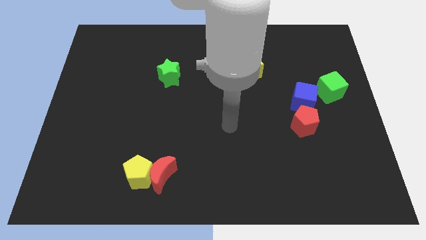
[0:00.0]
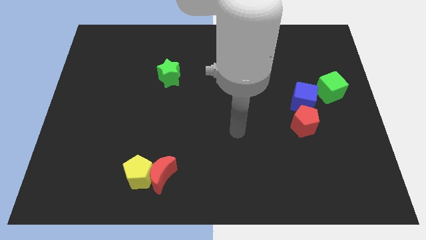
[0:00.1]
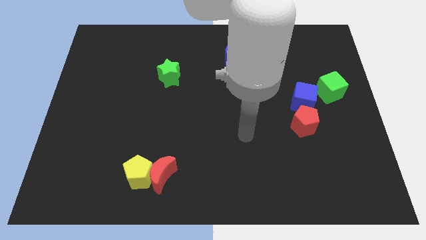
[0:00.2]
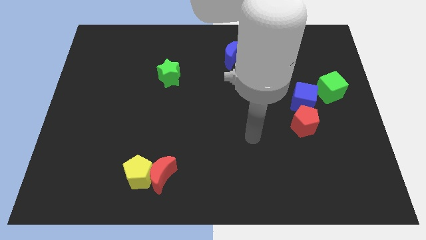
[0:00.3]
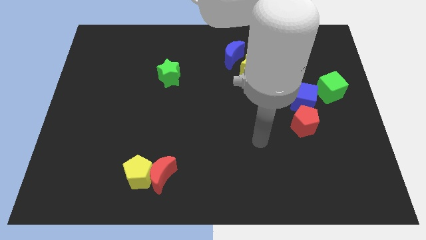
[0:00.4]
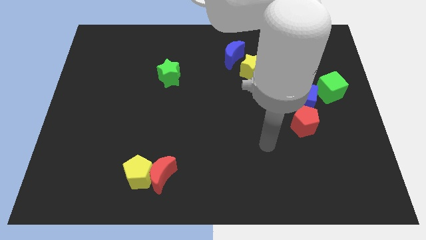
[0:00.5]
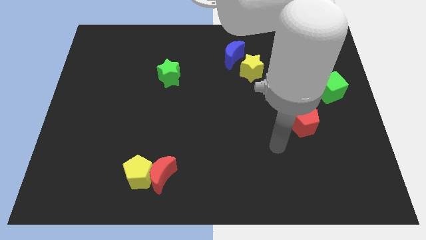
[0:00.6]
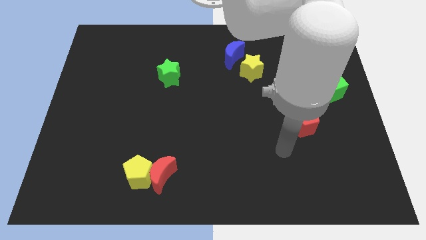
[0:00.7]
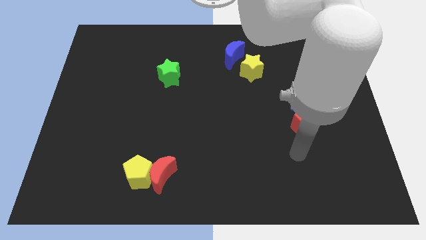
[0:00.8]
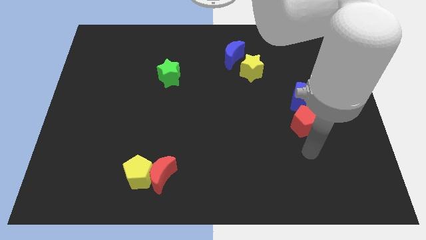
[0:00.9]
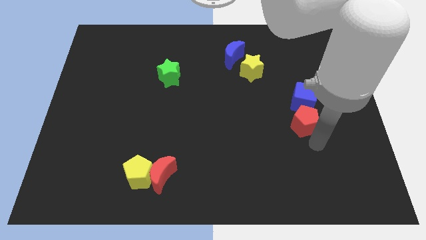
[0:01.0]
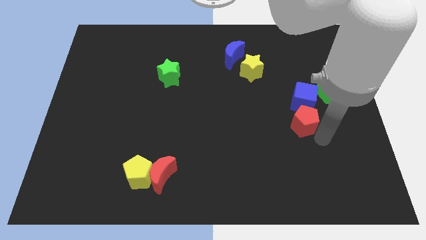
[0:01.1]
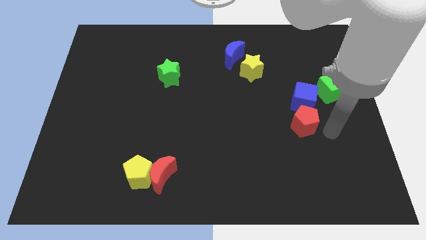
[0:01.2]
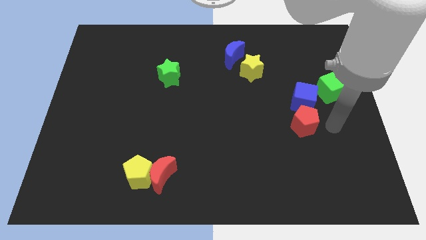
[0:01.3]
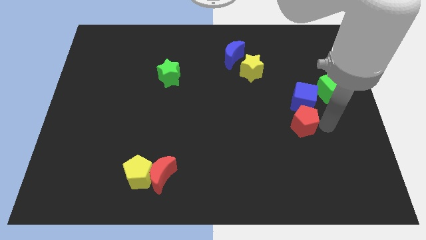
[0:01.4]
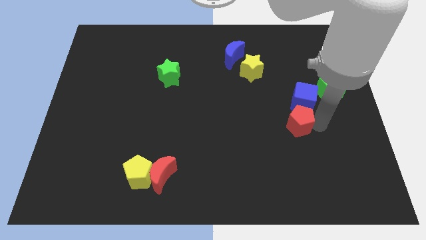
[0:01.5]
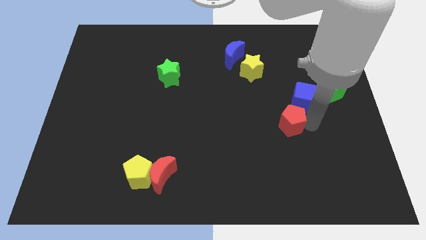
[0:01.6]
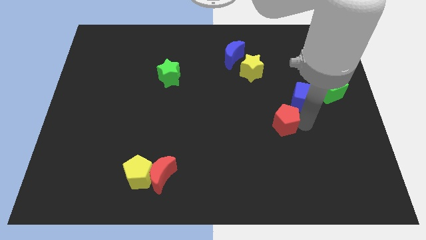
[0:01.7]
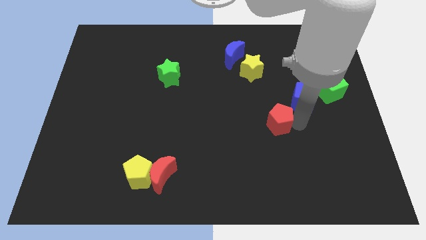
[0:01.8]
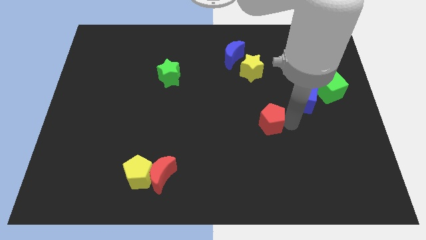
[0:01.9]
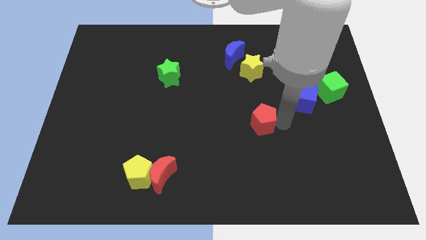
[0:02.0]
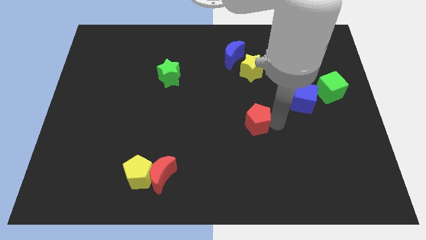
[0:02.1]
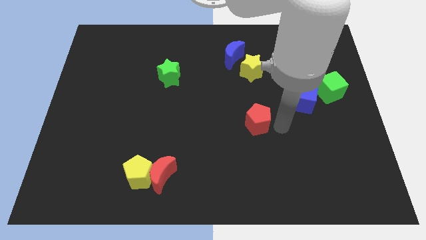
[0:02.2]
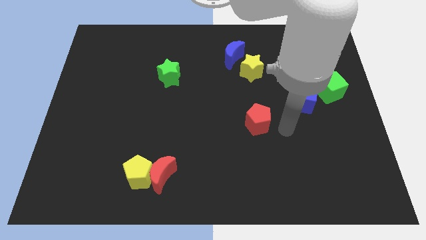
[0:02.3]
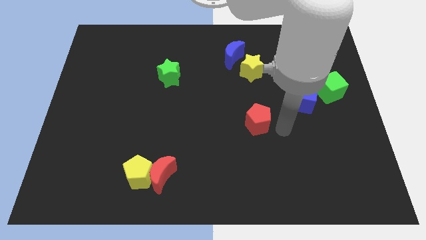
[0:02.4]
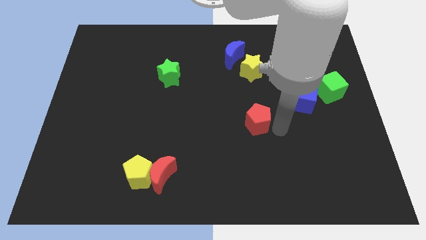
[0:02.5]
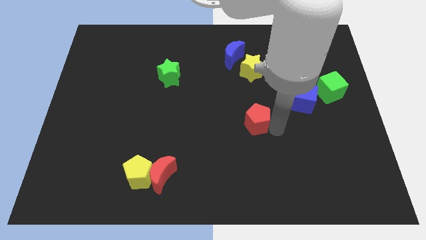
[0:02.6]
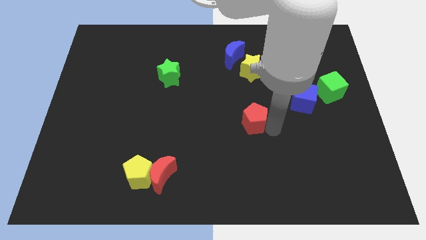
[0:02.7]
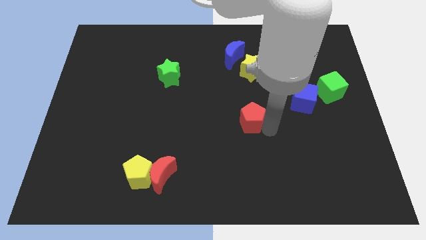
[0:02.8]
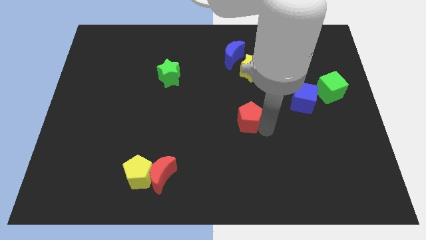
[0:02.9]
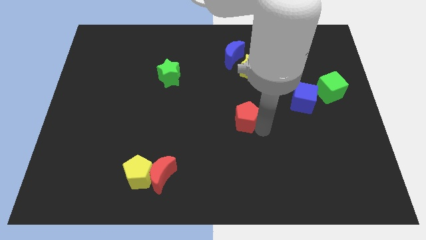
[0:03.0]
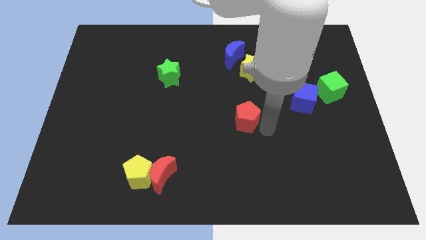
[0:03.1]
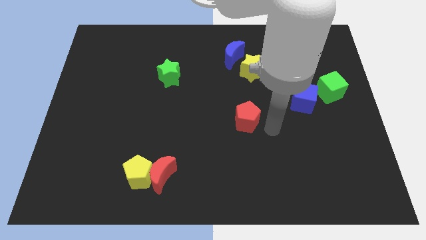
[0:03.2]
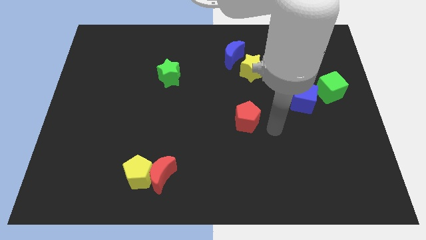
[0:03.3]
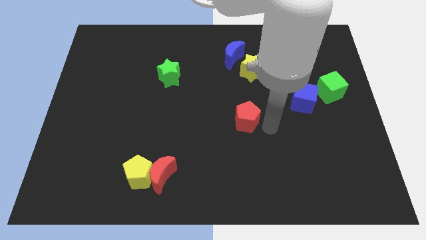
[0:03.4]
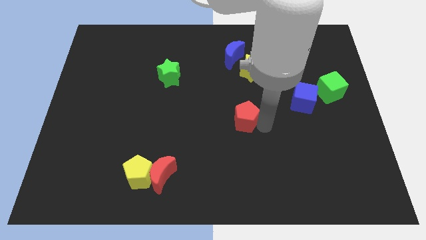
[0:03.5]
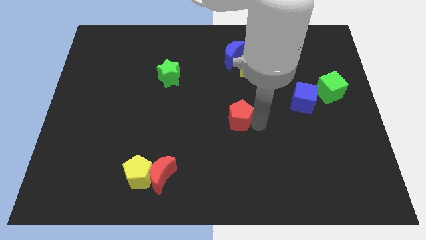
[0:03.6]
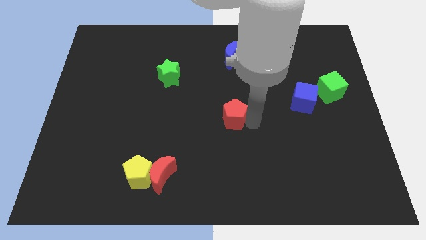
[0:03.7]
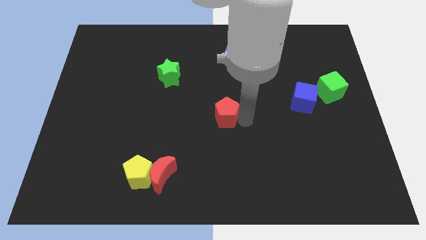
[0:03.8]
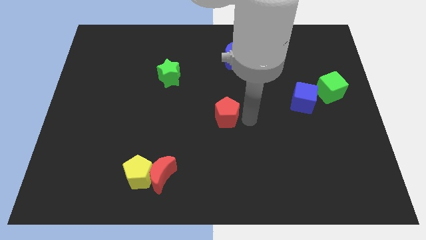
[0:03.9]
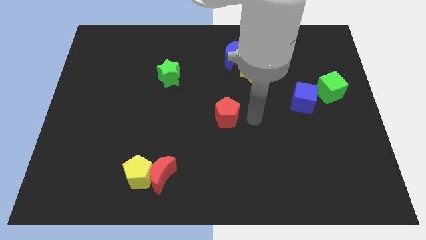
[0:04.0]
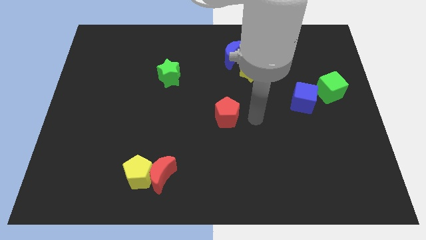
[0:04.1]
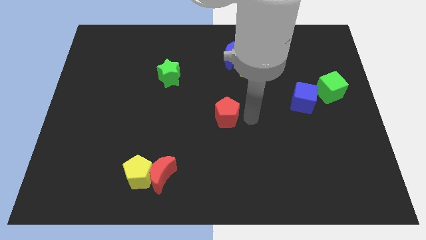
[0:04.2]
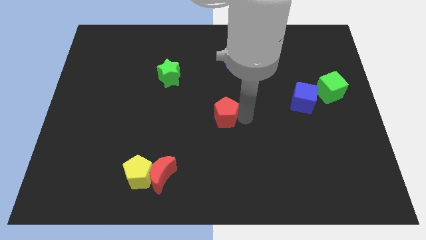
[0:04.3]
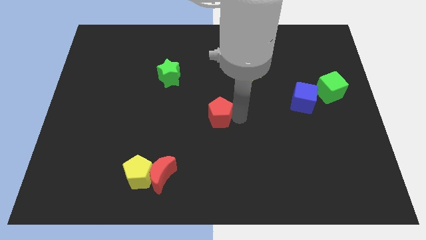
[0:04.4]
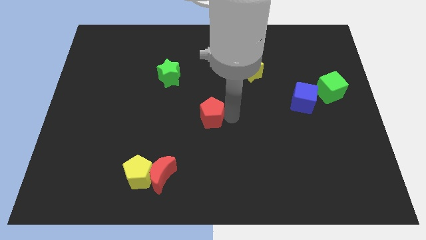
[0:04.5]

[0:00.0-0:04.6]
push the red pentagon left

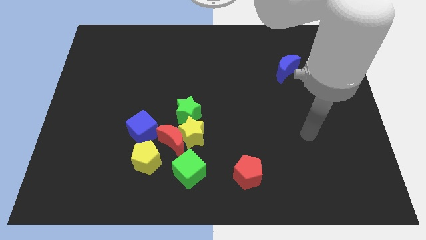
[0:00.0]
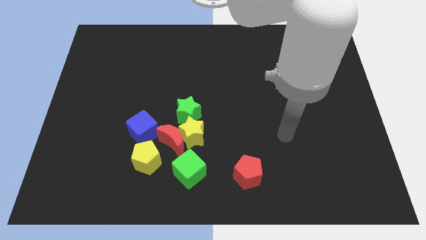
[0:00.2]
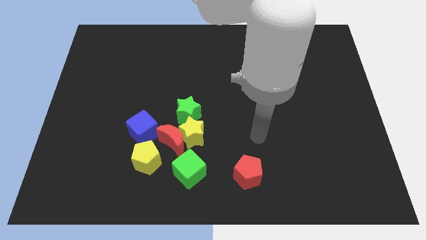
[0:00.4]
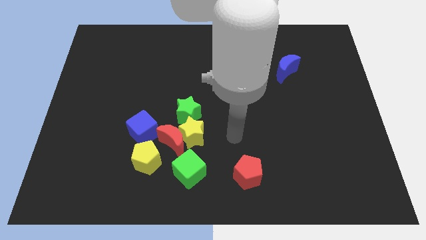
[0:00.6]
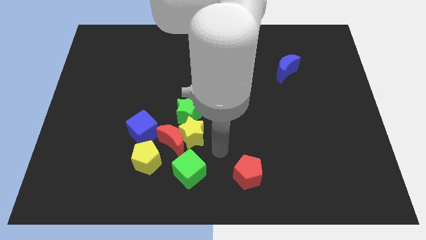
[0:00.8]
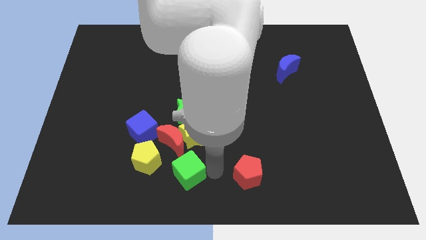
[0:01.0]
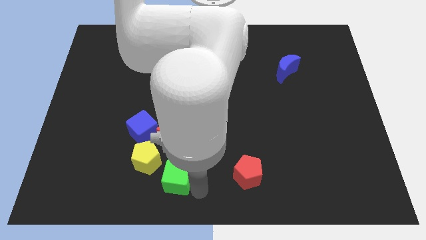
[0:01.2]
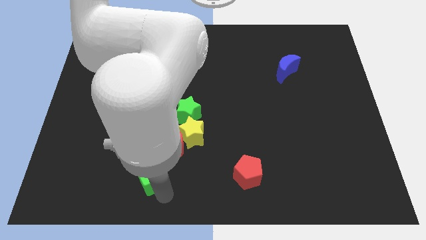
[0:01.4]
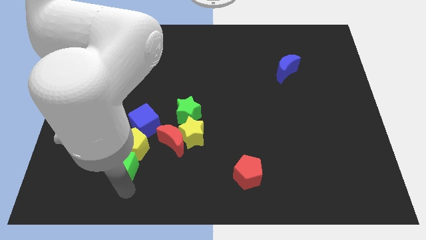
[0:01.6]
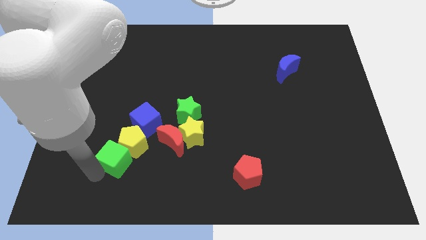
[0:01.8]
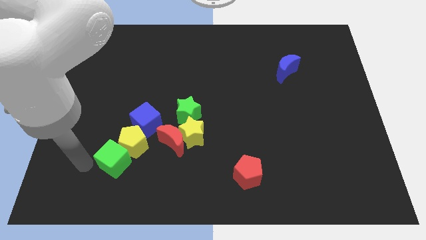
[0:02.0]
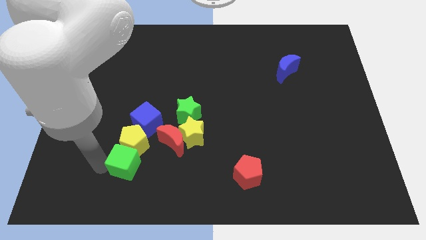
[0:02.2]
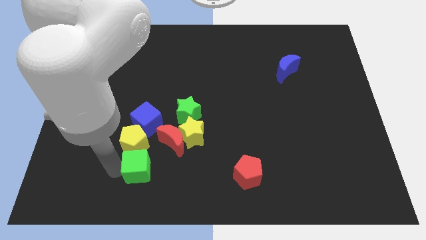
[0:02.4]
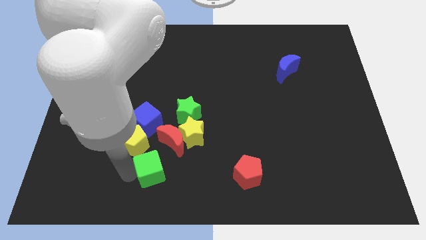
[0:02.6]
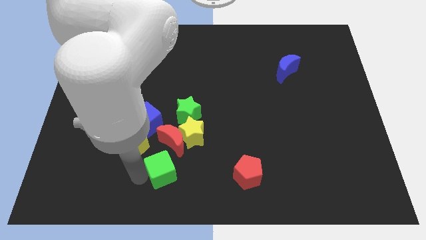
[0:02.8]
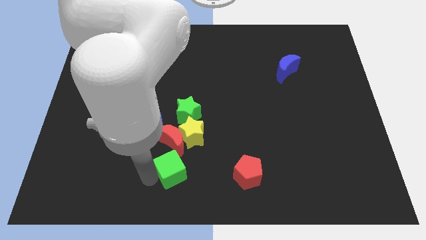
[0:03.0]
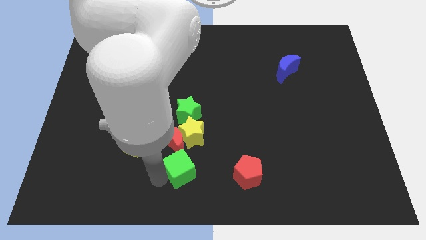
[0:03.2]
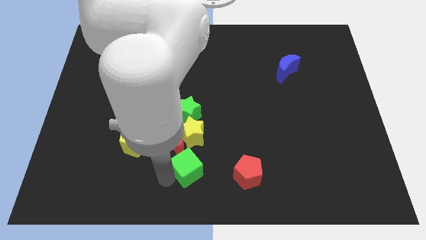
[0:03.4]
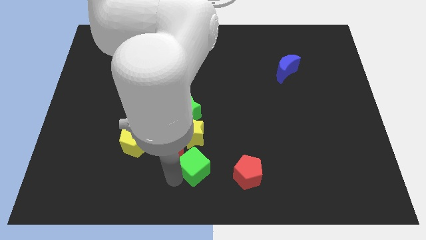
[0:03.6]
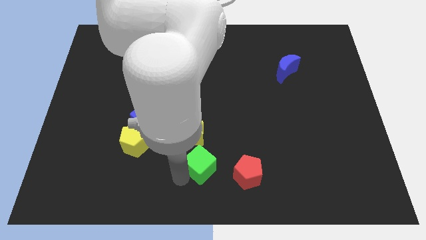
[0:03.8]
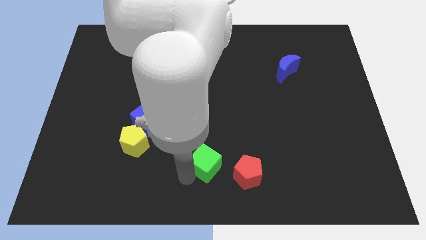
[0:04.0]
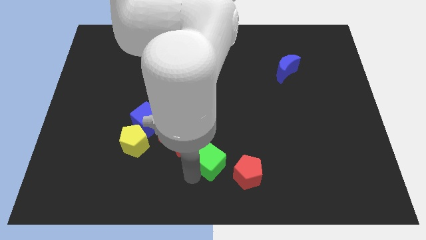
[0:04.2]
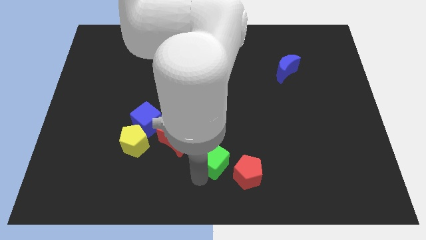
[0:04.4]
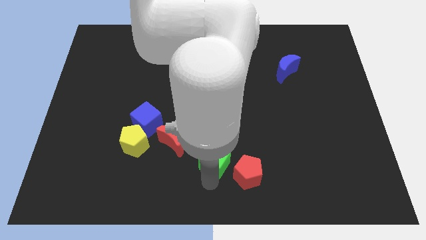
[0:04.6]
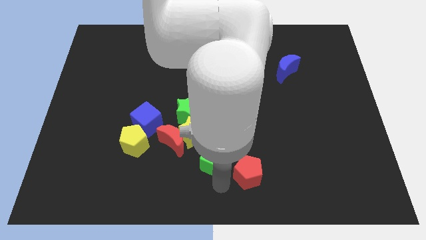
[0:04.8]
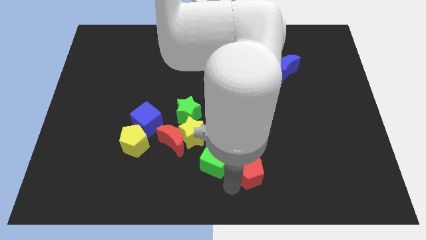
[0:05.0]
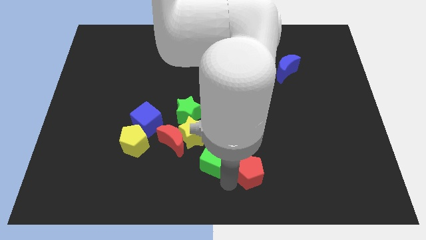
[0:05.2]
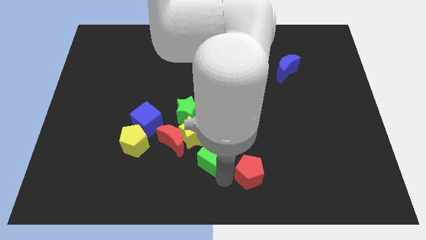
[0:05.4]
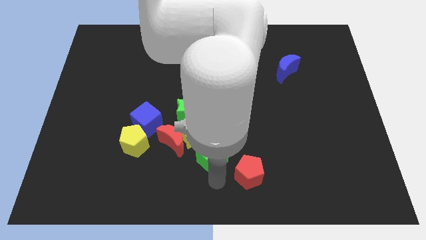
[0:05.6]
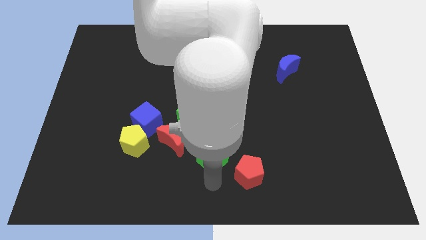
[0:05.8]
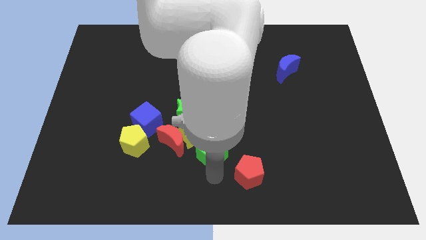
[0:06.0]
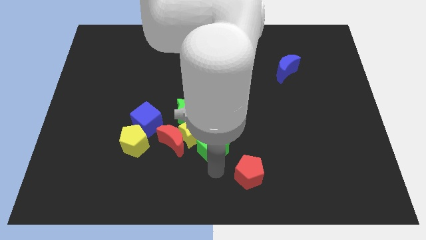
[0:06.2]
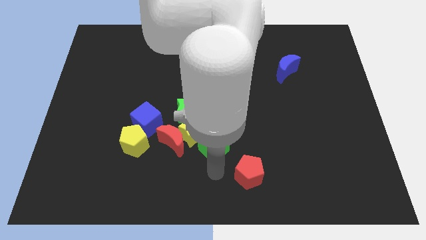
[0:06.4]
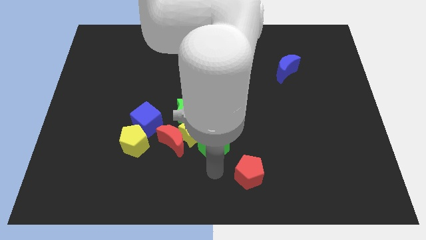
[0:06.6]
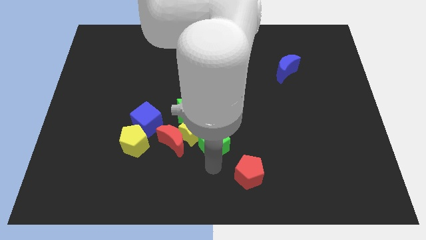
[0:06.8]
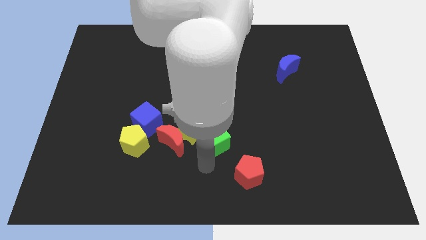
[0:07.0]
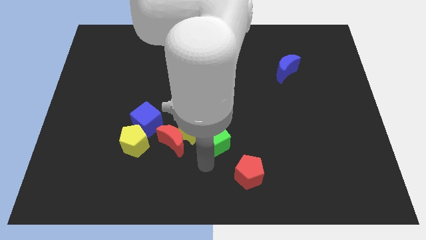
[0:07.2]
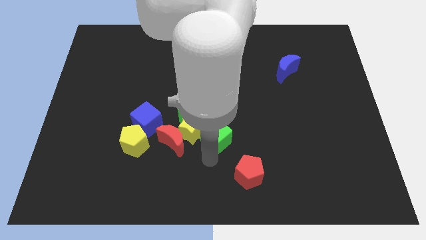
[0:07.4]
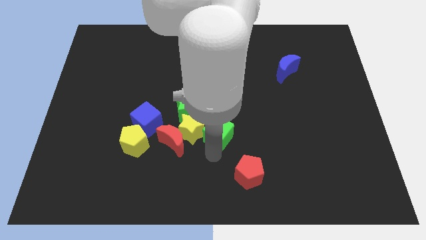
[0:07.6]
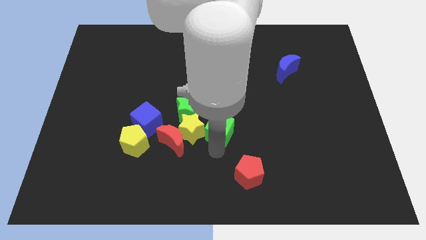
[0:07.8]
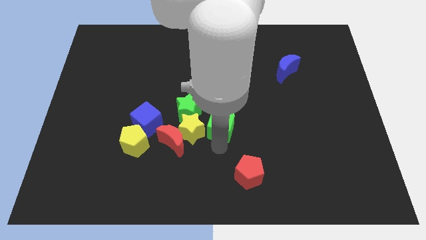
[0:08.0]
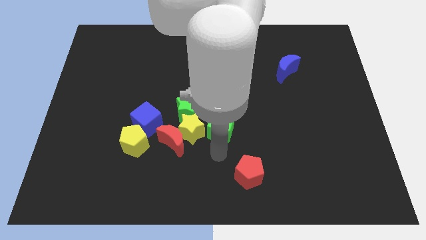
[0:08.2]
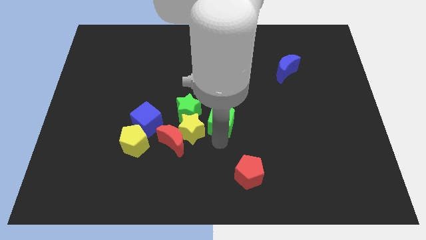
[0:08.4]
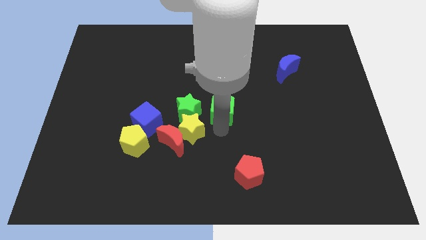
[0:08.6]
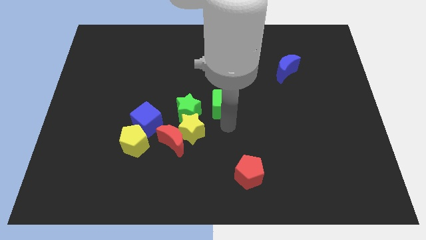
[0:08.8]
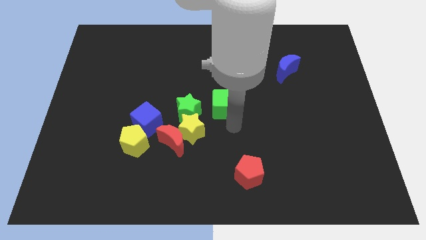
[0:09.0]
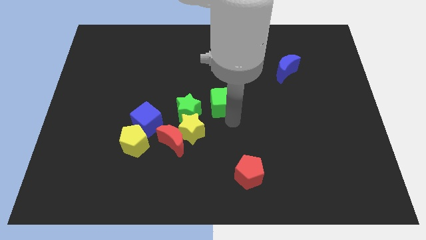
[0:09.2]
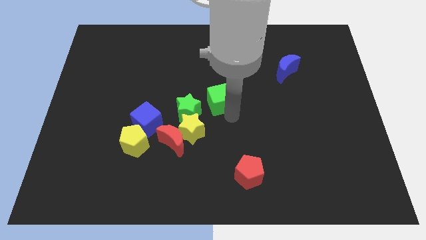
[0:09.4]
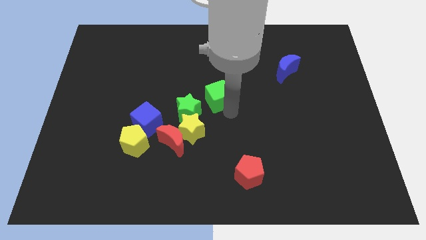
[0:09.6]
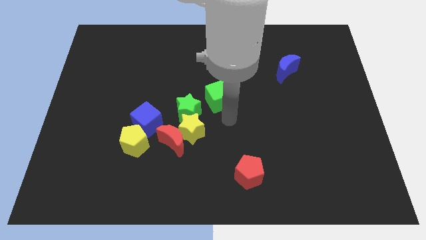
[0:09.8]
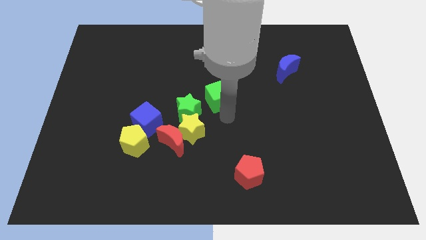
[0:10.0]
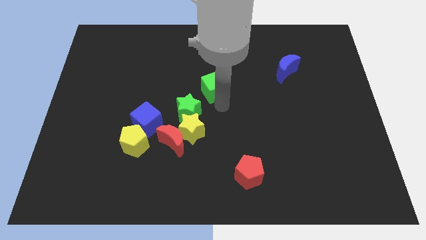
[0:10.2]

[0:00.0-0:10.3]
move the green cube upwards
